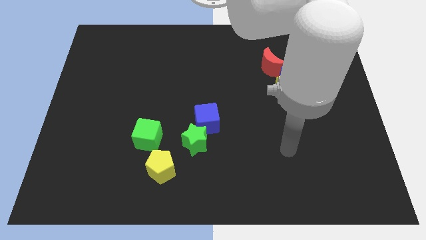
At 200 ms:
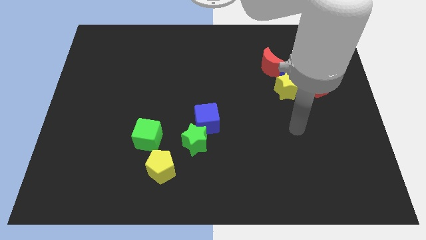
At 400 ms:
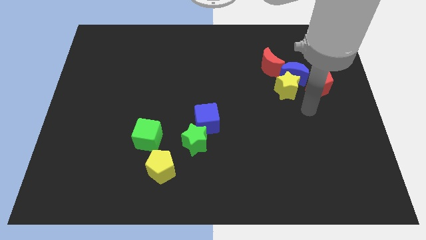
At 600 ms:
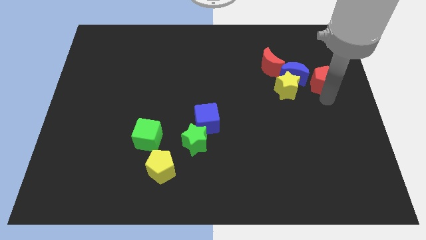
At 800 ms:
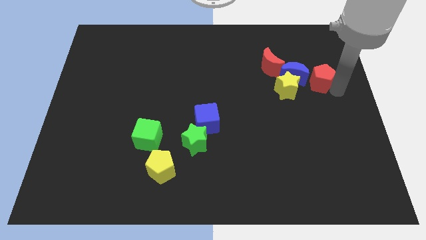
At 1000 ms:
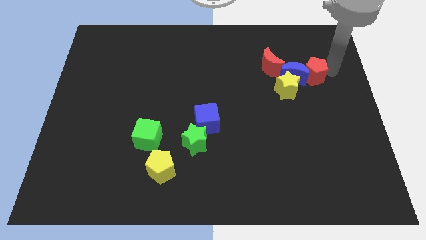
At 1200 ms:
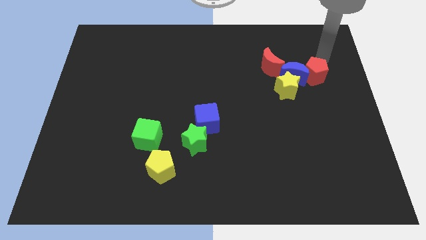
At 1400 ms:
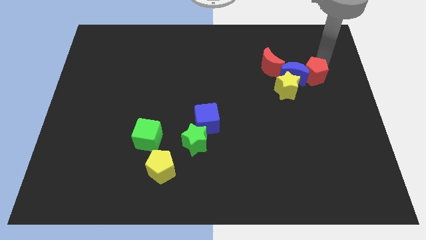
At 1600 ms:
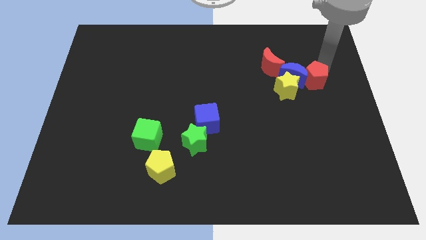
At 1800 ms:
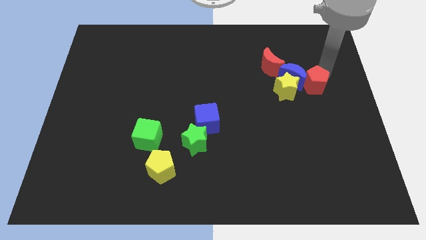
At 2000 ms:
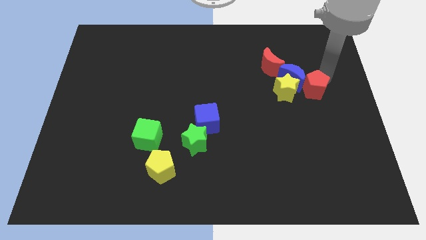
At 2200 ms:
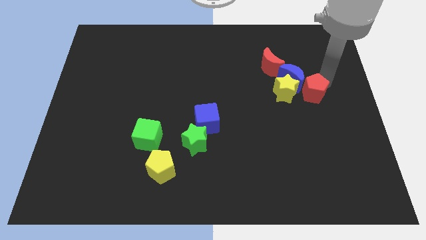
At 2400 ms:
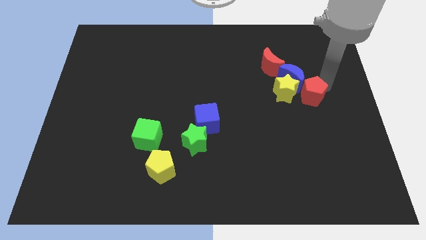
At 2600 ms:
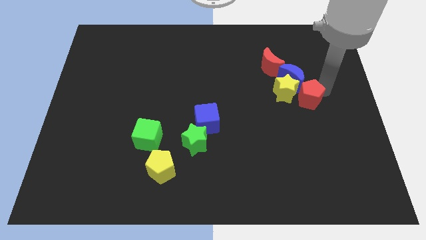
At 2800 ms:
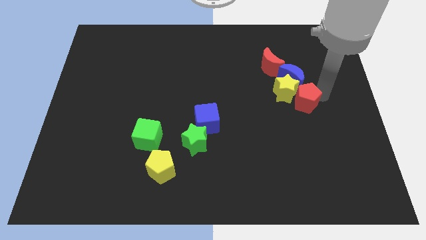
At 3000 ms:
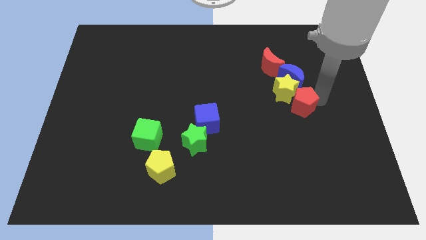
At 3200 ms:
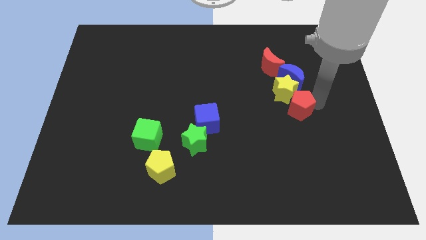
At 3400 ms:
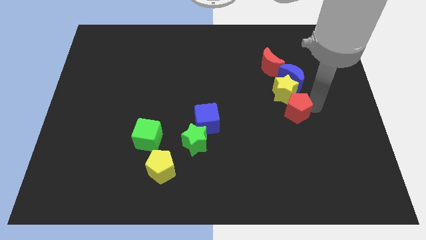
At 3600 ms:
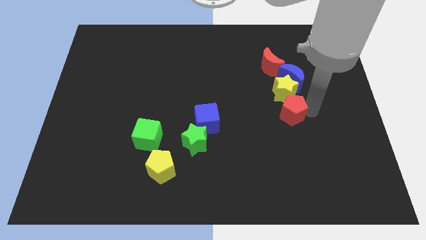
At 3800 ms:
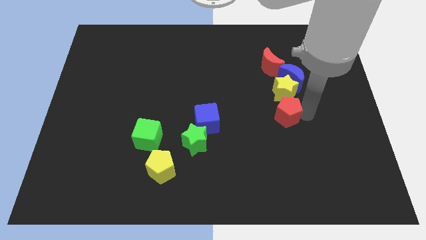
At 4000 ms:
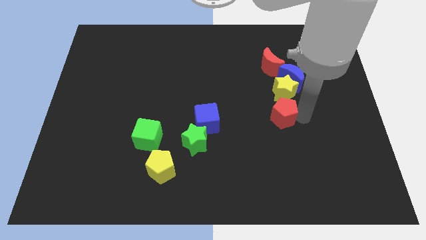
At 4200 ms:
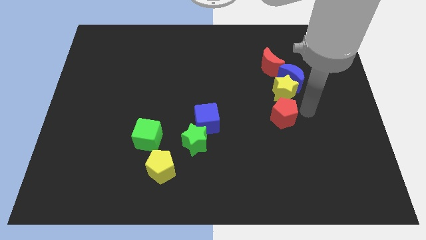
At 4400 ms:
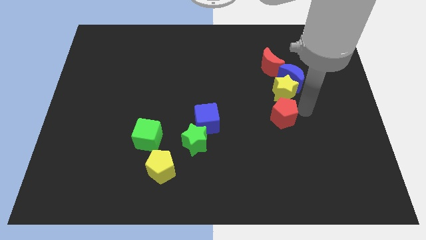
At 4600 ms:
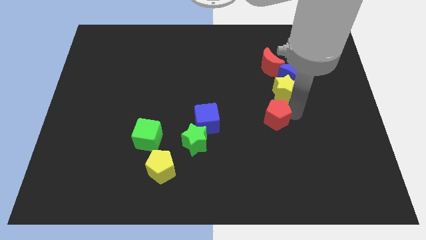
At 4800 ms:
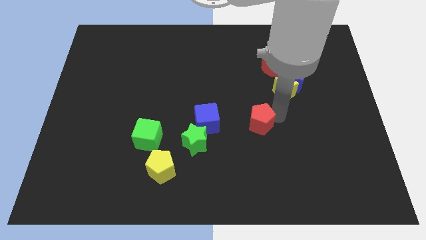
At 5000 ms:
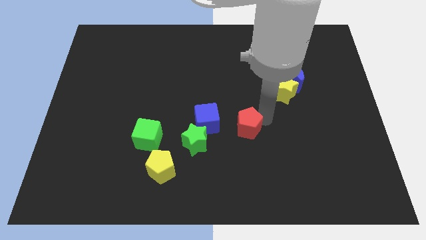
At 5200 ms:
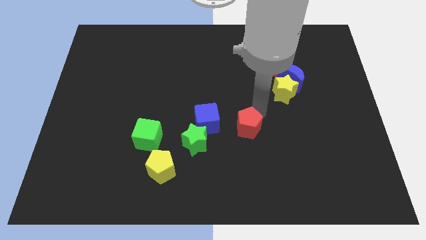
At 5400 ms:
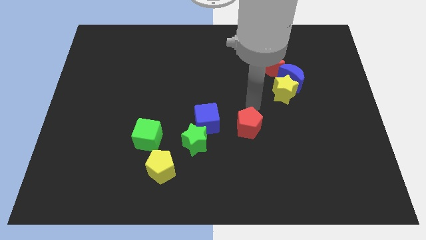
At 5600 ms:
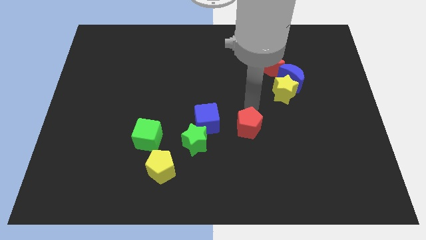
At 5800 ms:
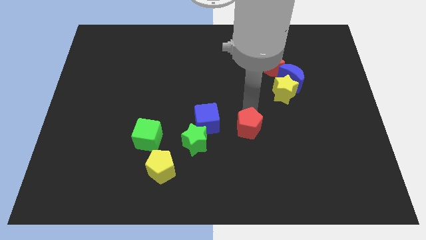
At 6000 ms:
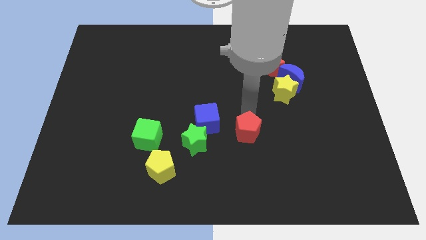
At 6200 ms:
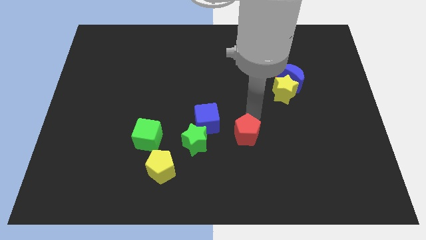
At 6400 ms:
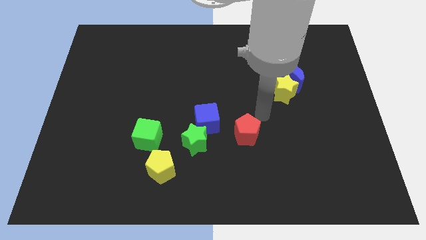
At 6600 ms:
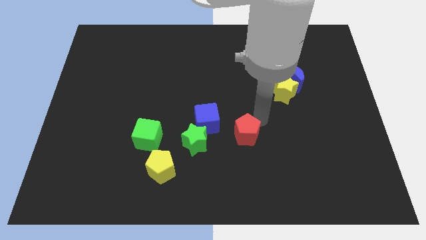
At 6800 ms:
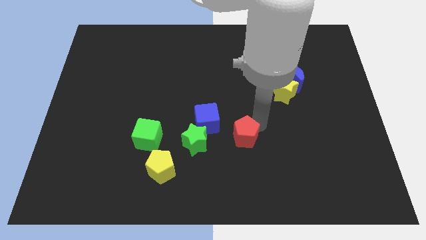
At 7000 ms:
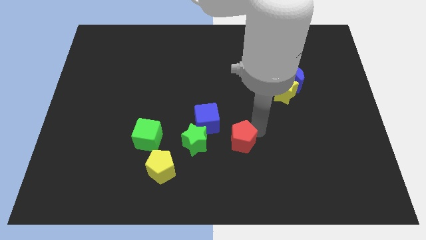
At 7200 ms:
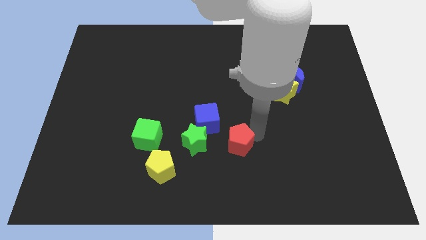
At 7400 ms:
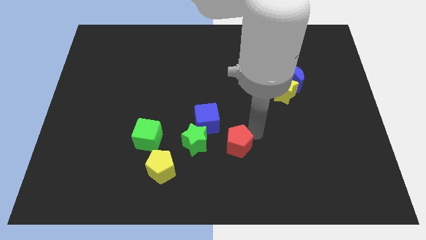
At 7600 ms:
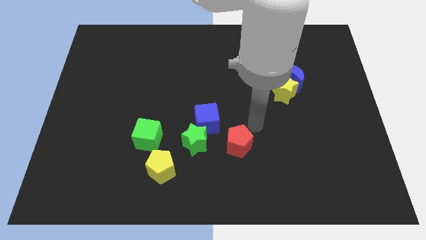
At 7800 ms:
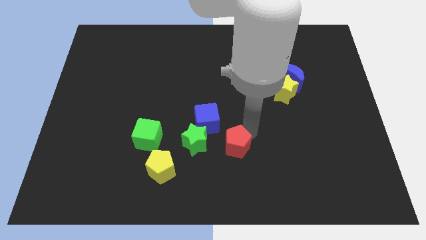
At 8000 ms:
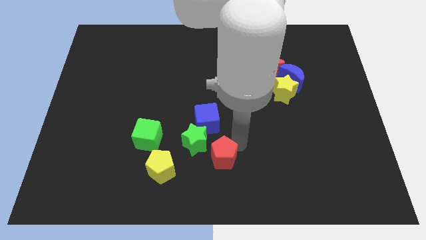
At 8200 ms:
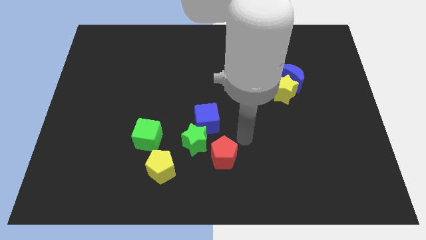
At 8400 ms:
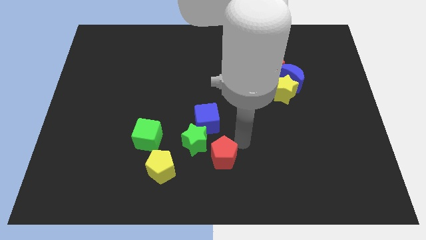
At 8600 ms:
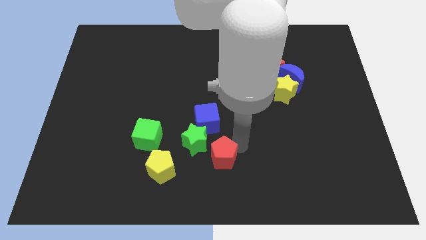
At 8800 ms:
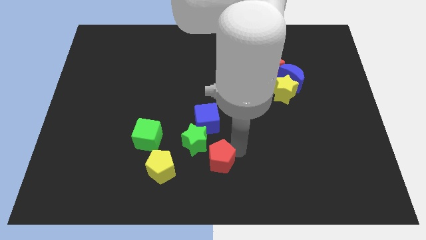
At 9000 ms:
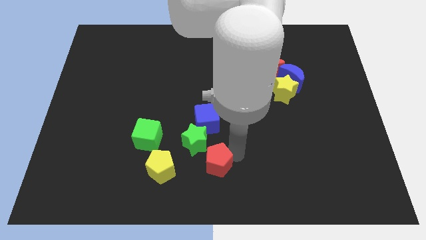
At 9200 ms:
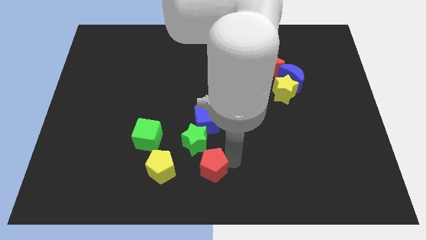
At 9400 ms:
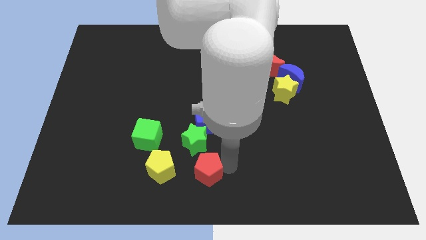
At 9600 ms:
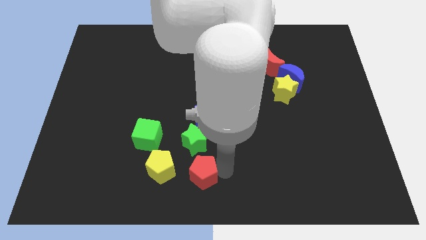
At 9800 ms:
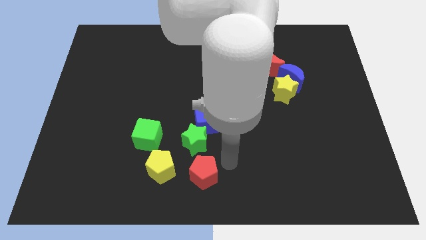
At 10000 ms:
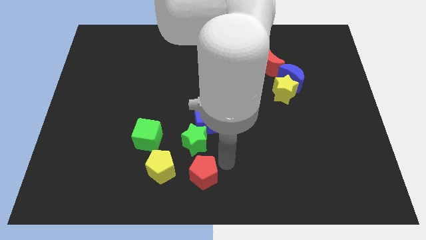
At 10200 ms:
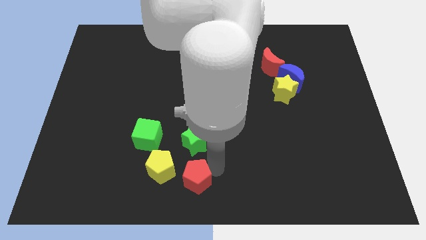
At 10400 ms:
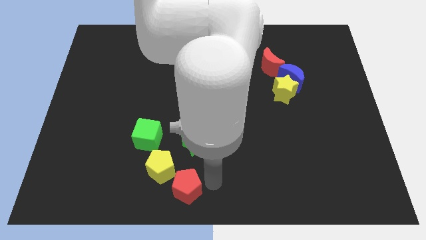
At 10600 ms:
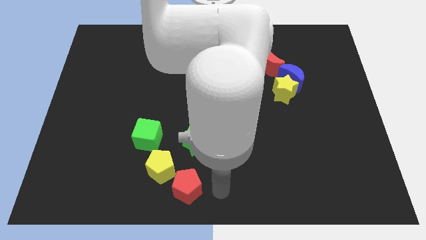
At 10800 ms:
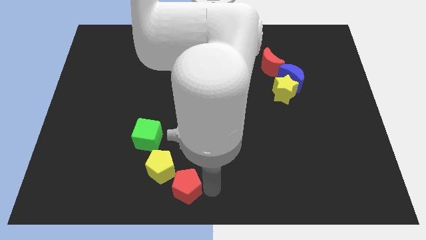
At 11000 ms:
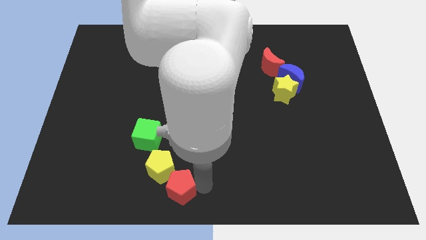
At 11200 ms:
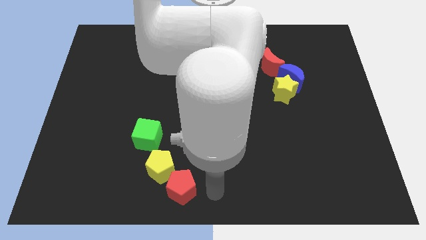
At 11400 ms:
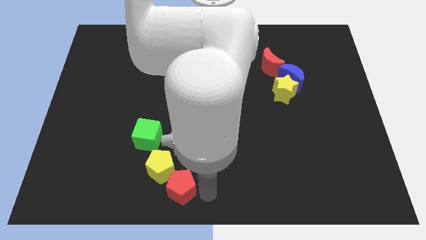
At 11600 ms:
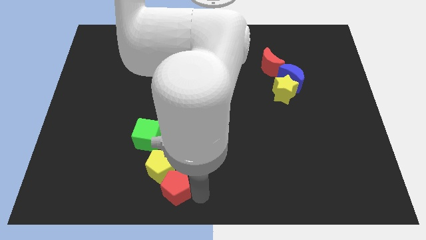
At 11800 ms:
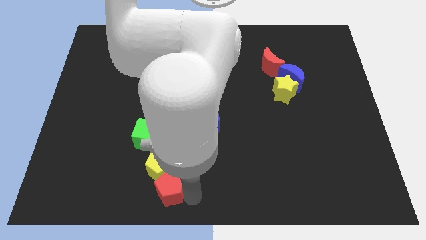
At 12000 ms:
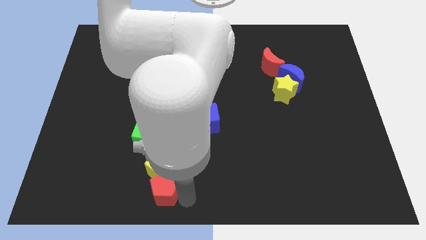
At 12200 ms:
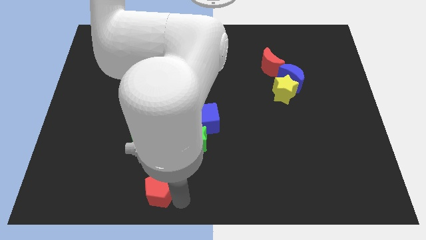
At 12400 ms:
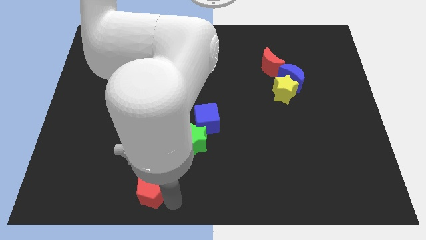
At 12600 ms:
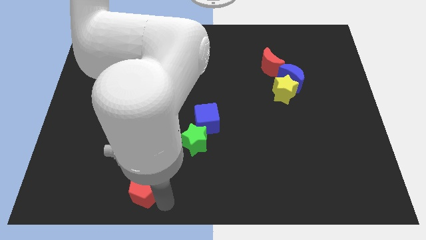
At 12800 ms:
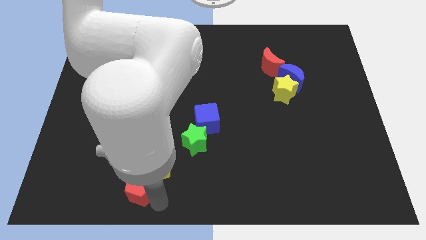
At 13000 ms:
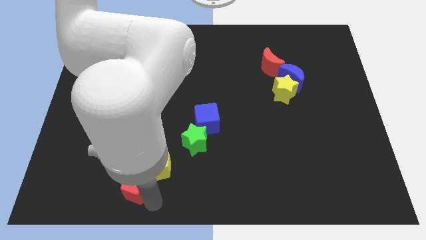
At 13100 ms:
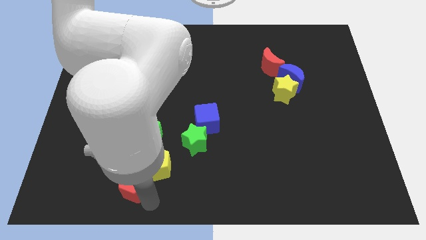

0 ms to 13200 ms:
move the red pentagon to the left of the yellow pentagon
